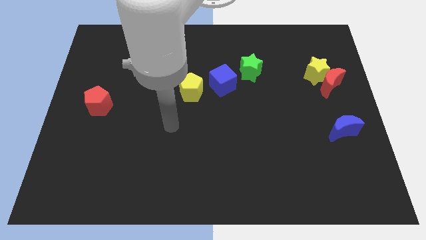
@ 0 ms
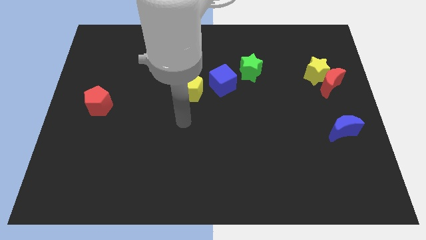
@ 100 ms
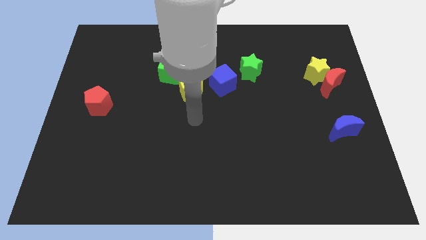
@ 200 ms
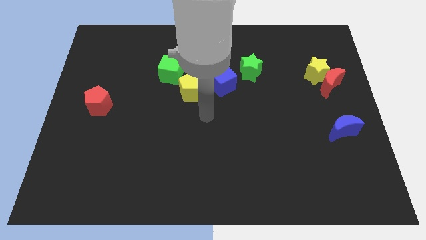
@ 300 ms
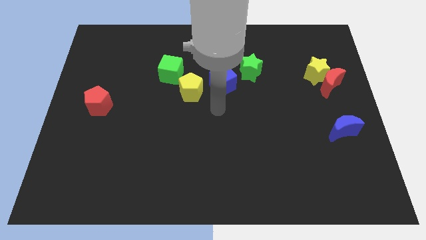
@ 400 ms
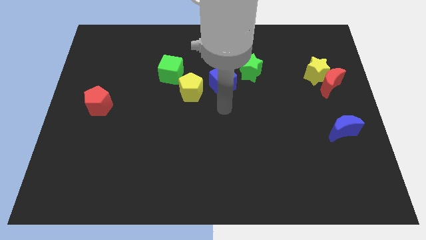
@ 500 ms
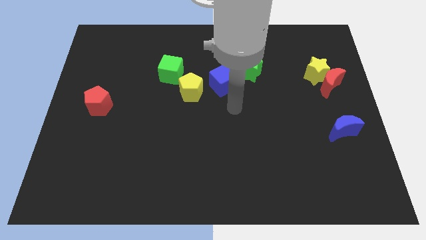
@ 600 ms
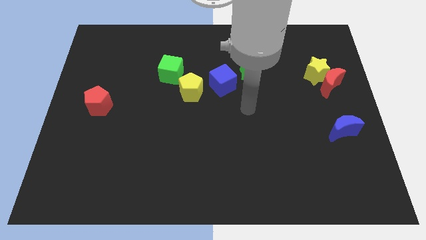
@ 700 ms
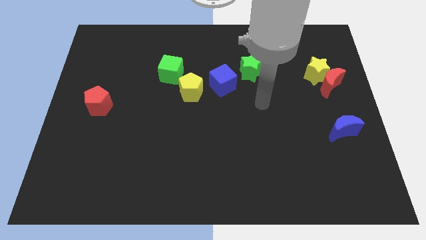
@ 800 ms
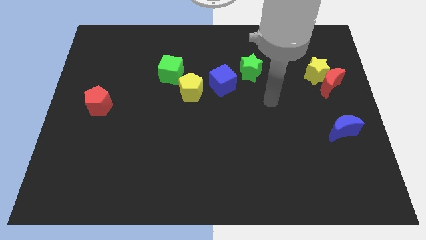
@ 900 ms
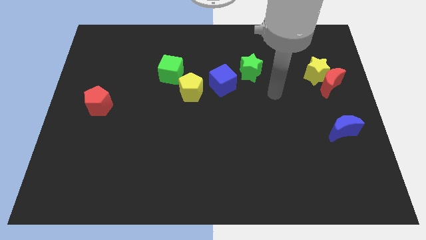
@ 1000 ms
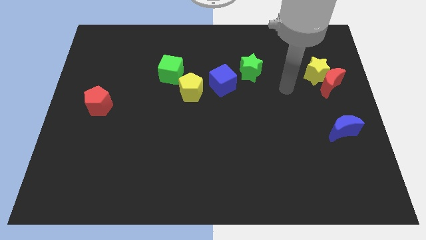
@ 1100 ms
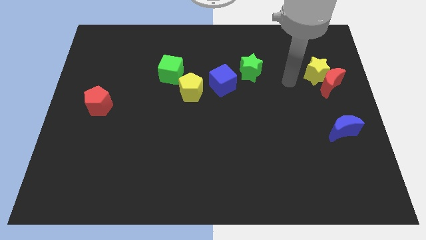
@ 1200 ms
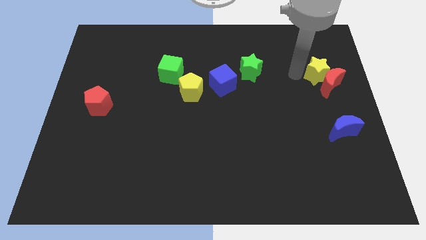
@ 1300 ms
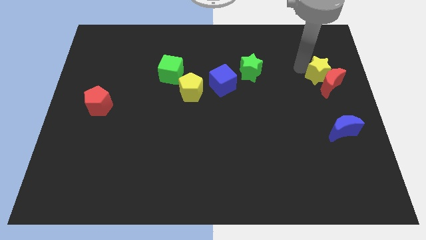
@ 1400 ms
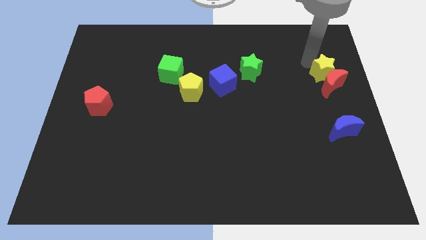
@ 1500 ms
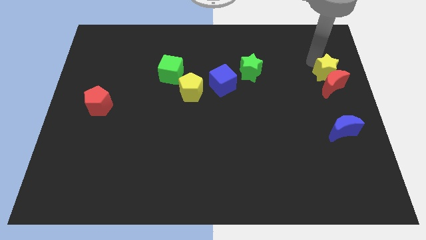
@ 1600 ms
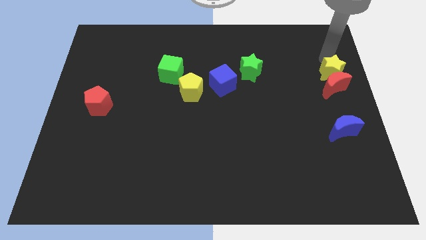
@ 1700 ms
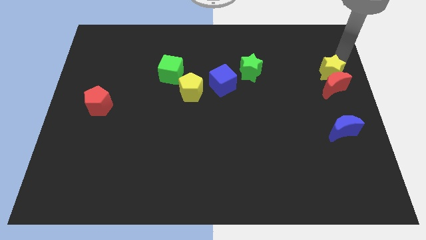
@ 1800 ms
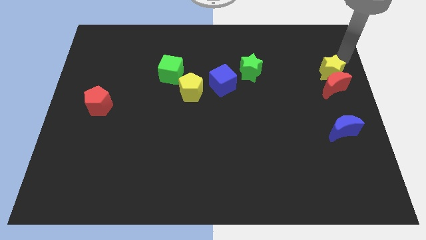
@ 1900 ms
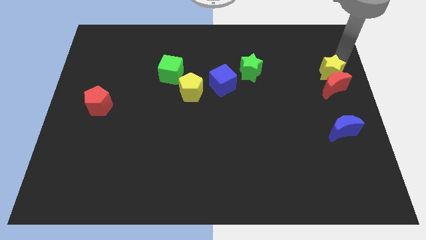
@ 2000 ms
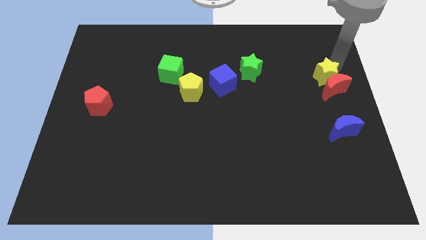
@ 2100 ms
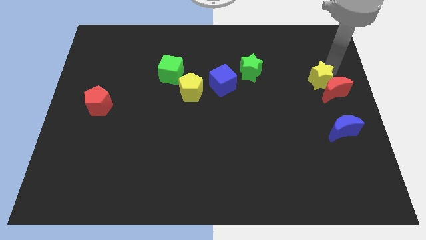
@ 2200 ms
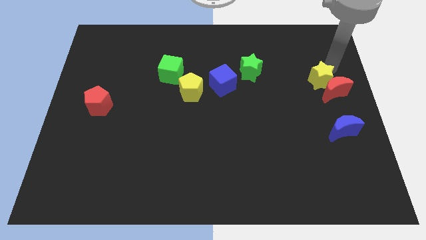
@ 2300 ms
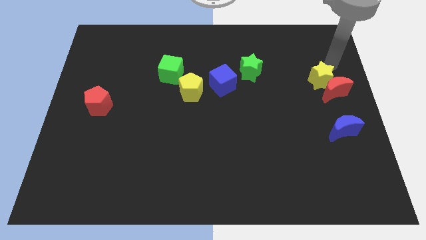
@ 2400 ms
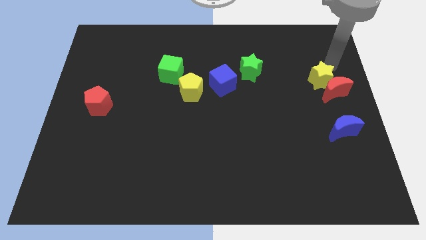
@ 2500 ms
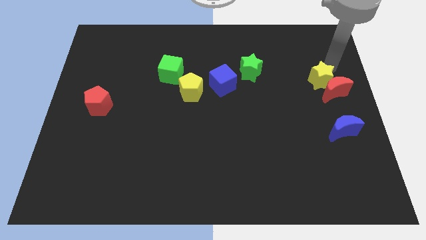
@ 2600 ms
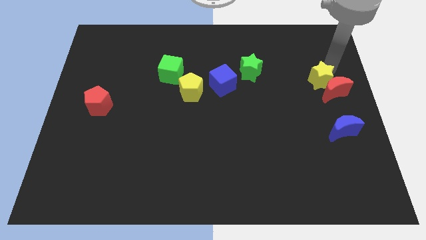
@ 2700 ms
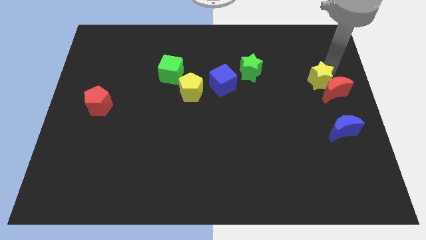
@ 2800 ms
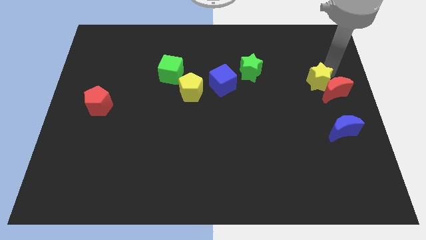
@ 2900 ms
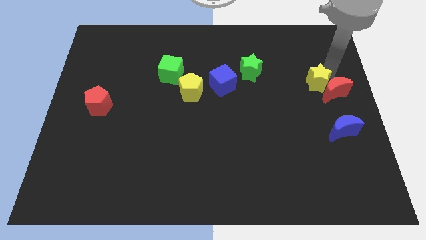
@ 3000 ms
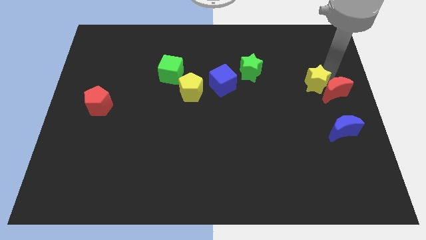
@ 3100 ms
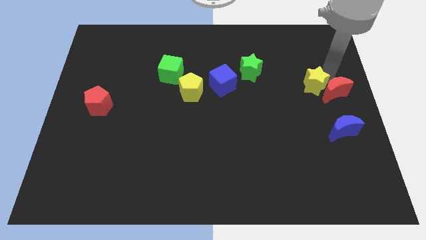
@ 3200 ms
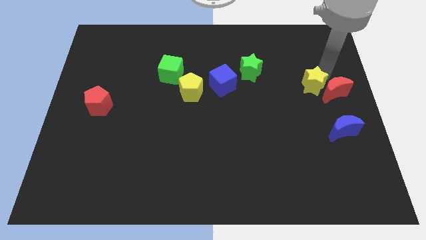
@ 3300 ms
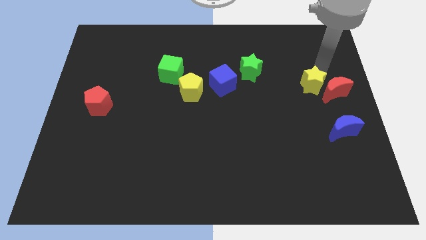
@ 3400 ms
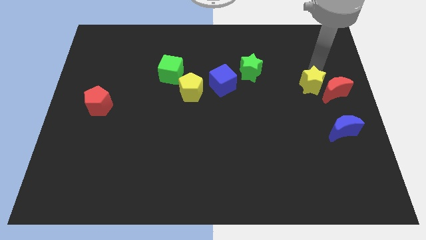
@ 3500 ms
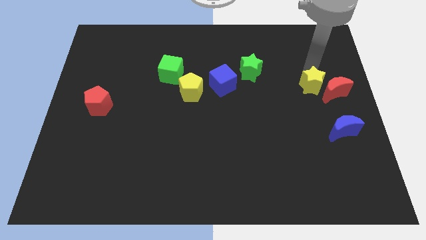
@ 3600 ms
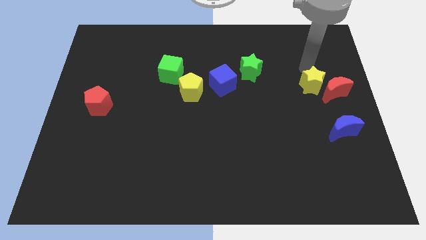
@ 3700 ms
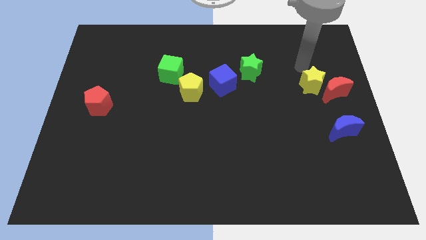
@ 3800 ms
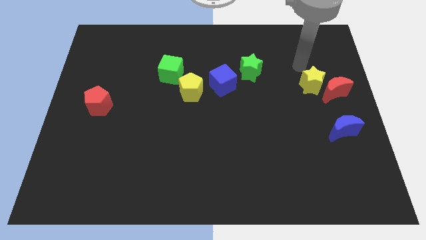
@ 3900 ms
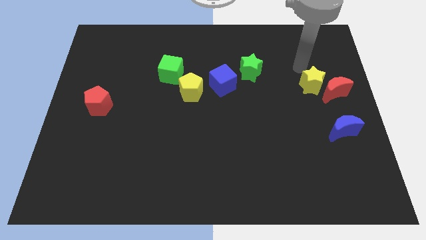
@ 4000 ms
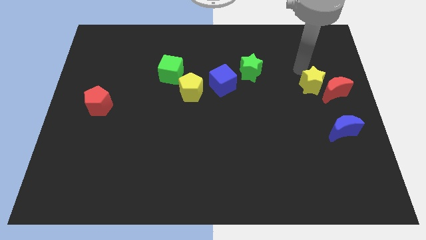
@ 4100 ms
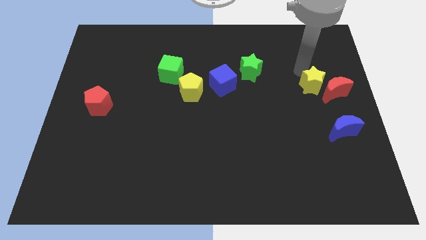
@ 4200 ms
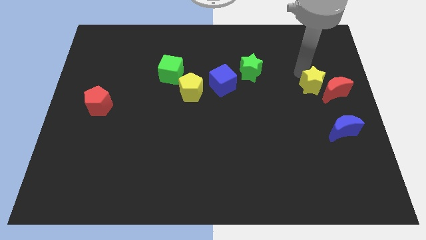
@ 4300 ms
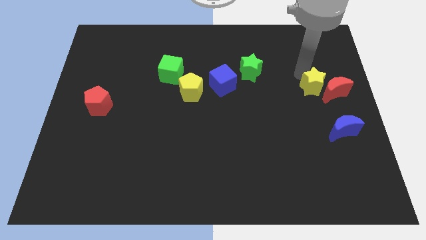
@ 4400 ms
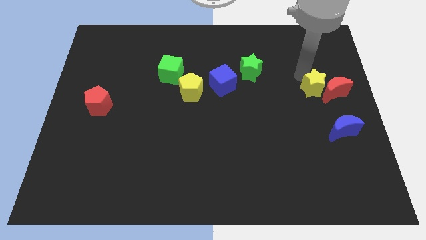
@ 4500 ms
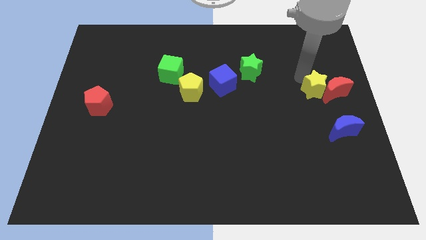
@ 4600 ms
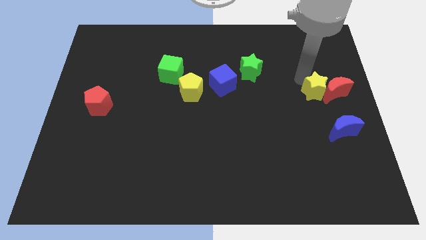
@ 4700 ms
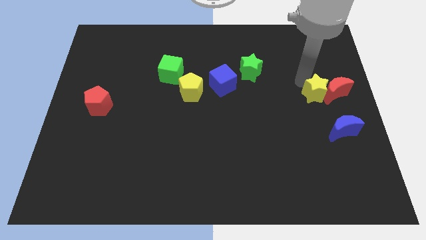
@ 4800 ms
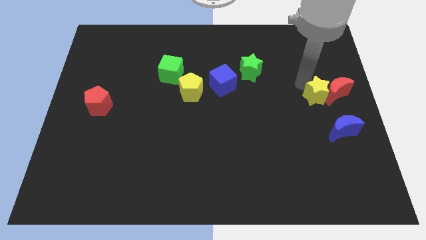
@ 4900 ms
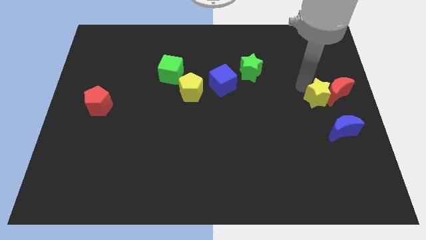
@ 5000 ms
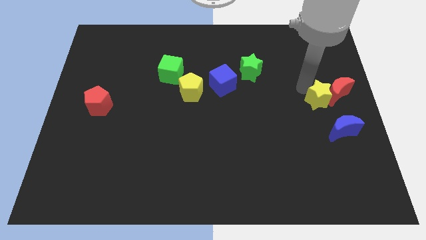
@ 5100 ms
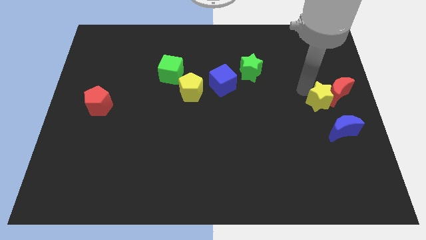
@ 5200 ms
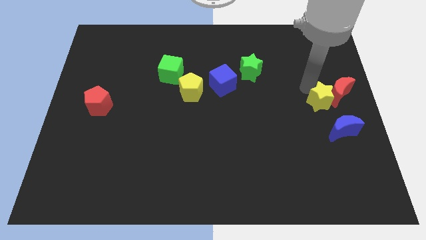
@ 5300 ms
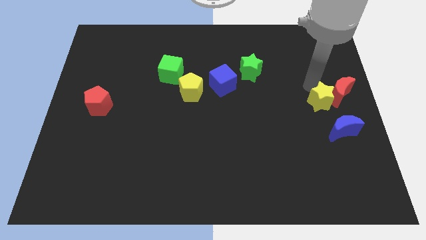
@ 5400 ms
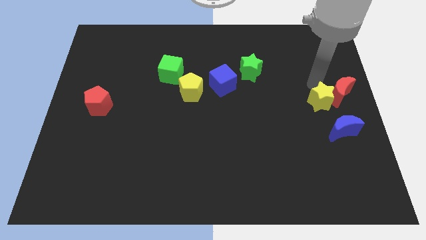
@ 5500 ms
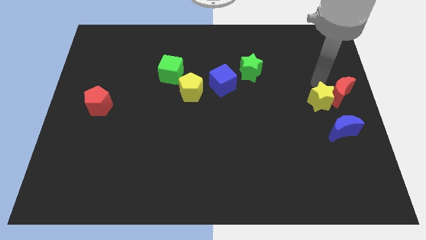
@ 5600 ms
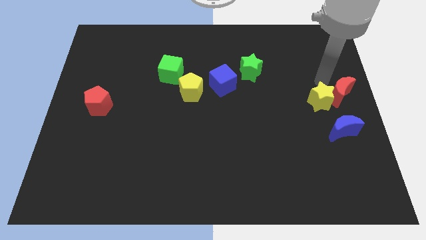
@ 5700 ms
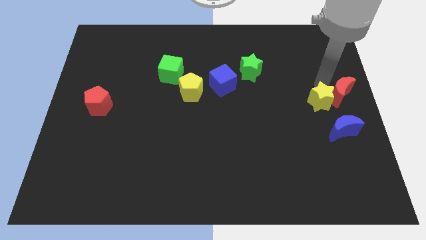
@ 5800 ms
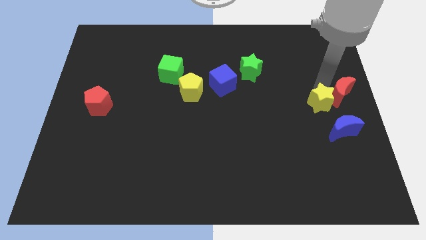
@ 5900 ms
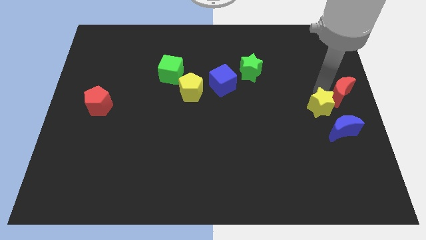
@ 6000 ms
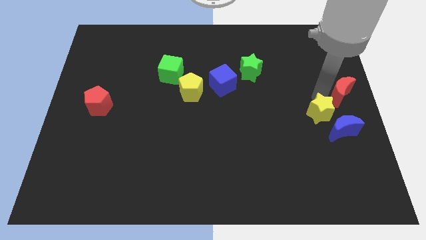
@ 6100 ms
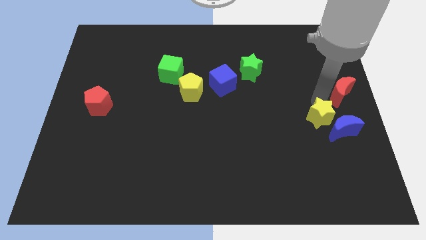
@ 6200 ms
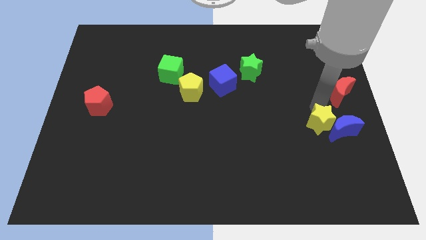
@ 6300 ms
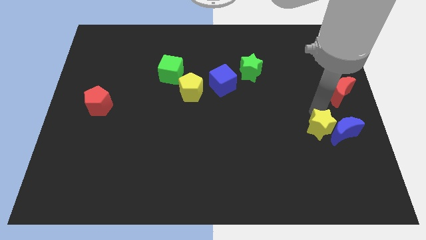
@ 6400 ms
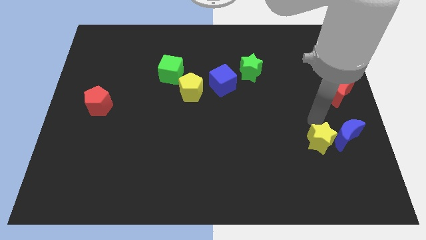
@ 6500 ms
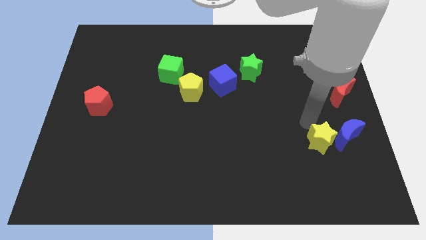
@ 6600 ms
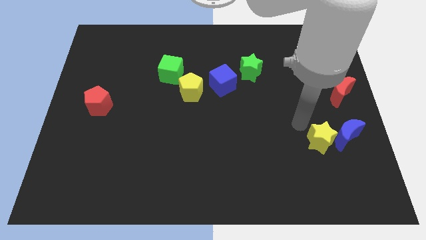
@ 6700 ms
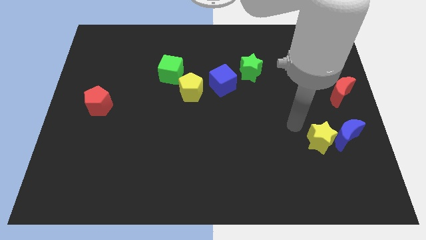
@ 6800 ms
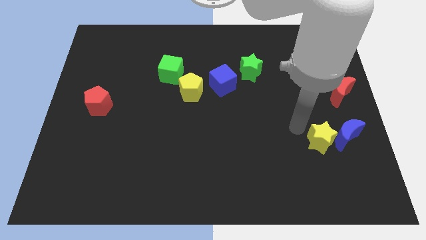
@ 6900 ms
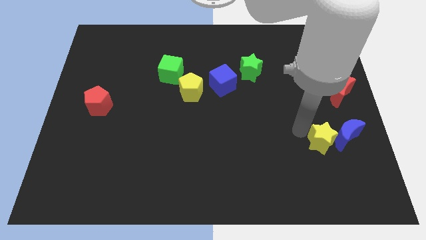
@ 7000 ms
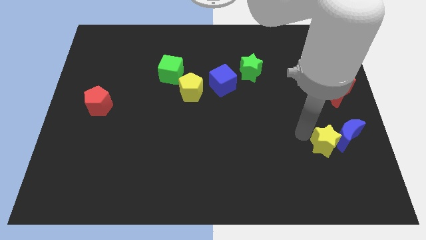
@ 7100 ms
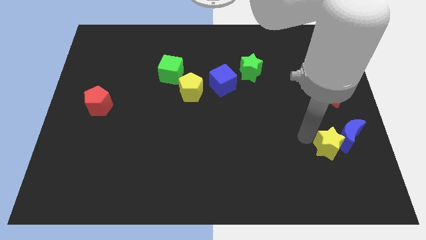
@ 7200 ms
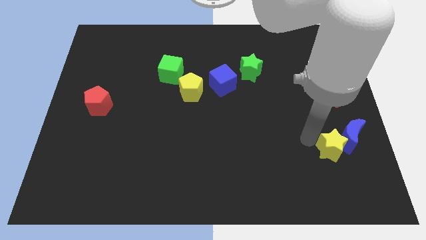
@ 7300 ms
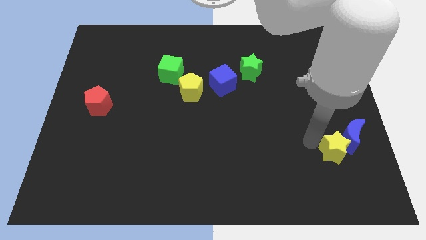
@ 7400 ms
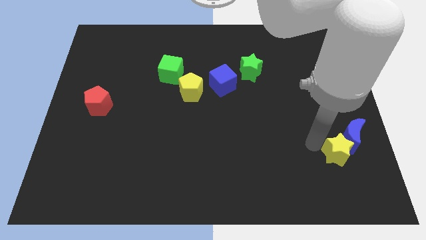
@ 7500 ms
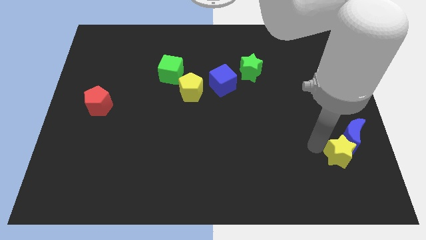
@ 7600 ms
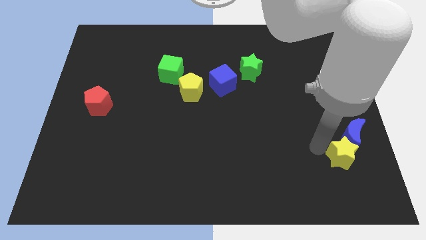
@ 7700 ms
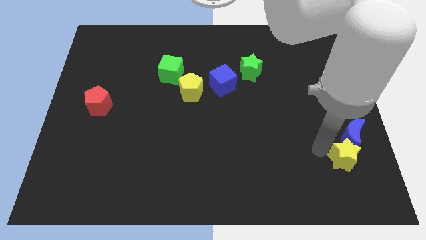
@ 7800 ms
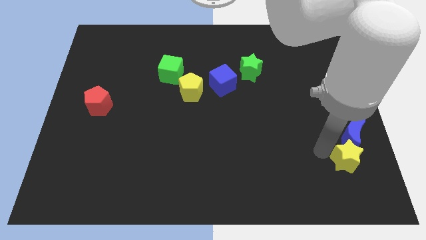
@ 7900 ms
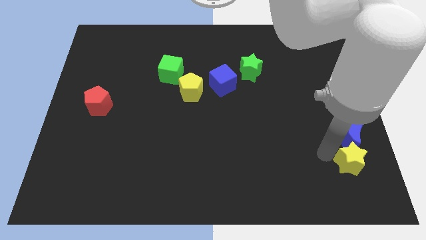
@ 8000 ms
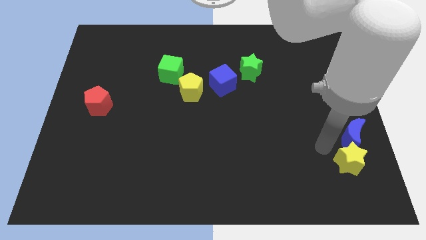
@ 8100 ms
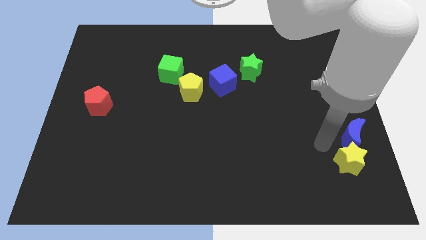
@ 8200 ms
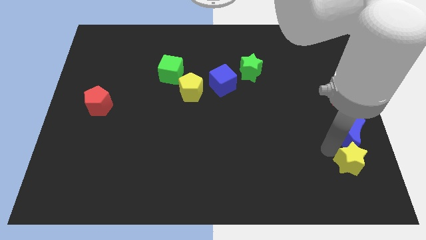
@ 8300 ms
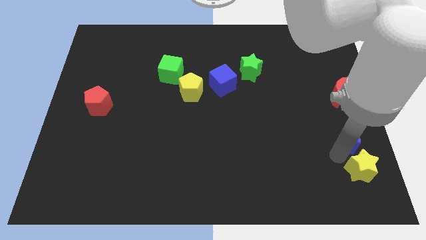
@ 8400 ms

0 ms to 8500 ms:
push the yellow star to the lower right corner
